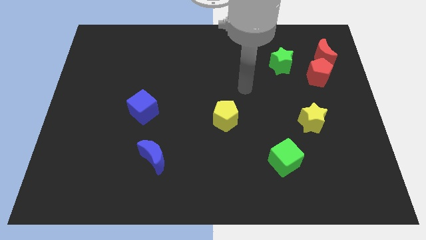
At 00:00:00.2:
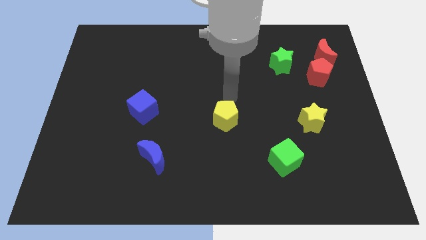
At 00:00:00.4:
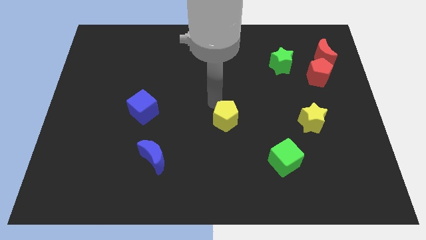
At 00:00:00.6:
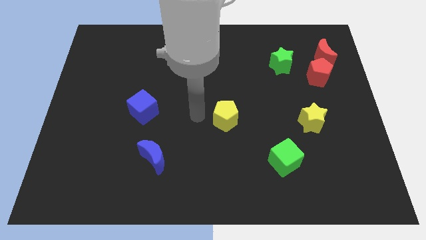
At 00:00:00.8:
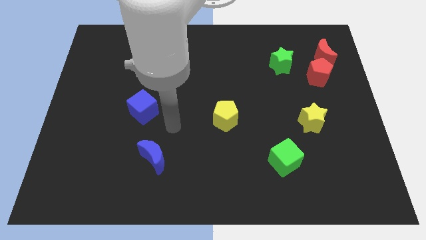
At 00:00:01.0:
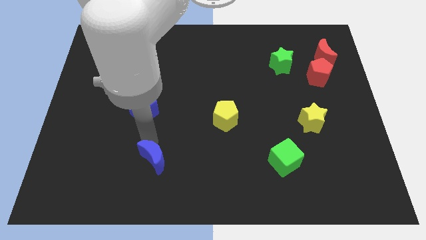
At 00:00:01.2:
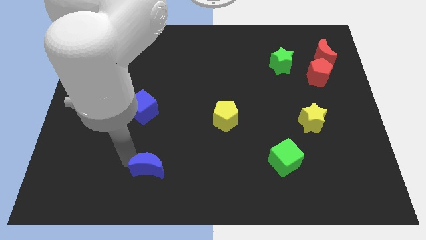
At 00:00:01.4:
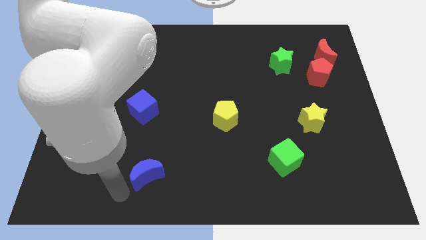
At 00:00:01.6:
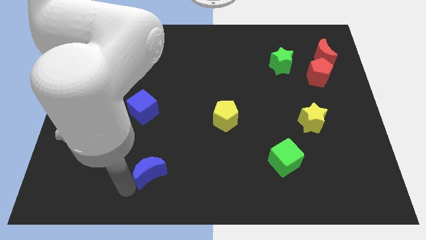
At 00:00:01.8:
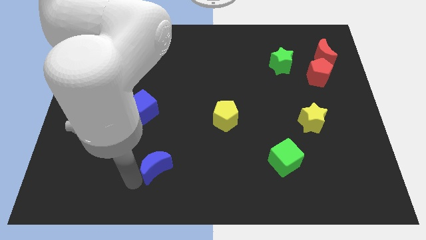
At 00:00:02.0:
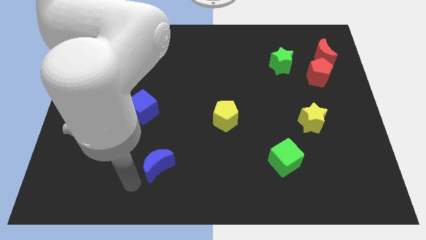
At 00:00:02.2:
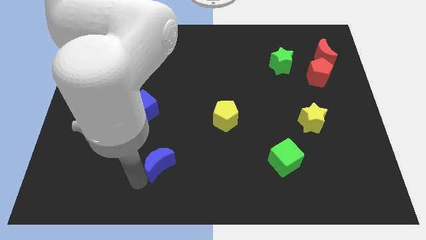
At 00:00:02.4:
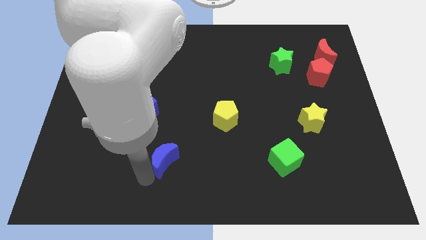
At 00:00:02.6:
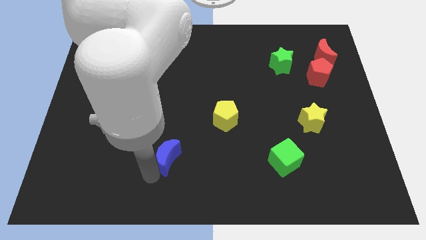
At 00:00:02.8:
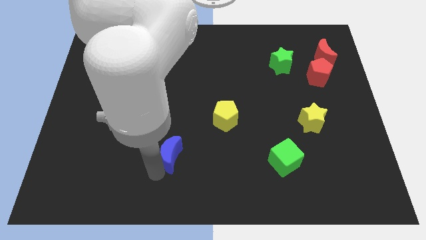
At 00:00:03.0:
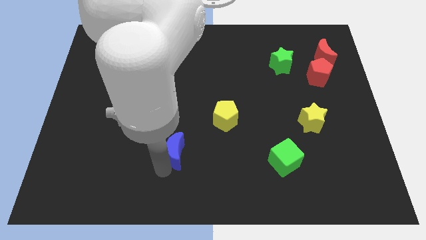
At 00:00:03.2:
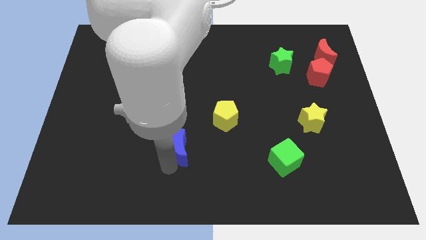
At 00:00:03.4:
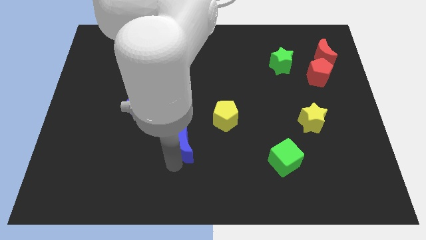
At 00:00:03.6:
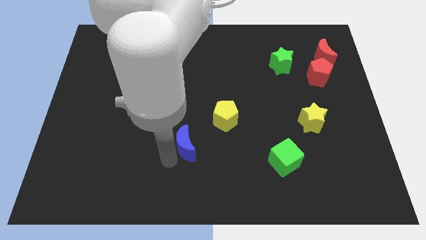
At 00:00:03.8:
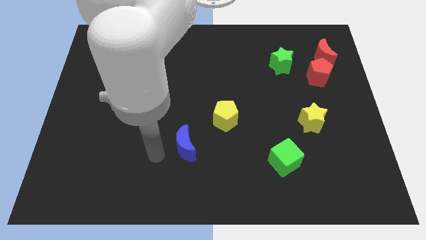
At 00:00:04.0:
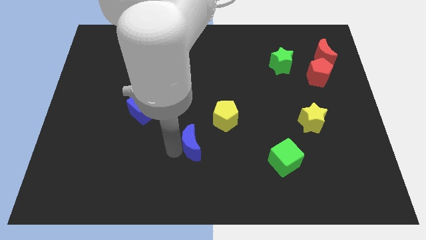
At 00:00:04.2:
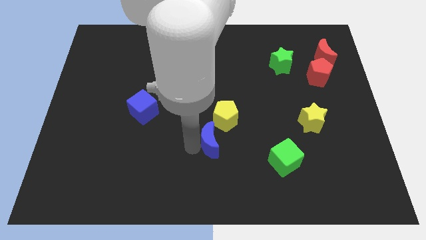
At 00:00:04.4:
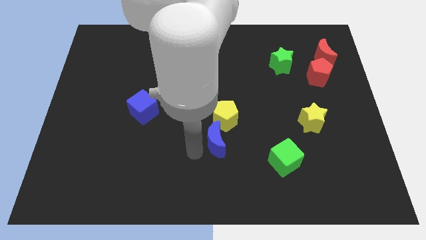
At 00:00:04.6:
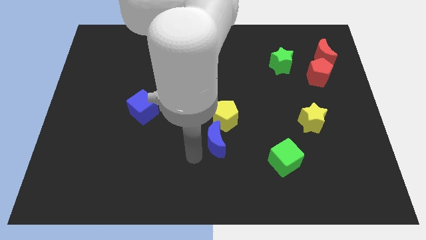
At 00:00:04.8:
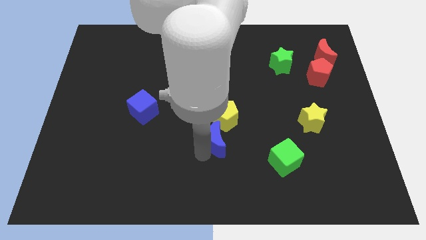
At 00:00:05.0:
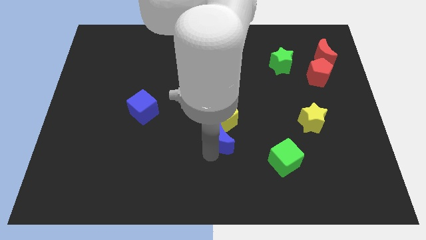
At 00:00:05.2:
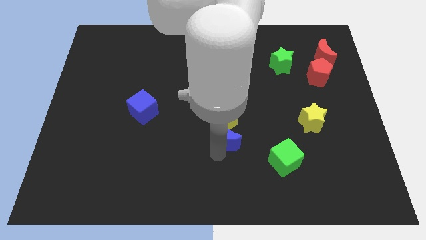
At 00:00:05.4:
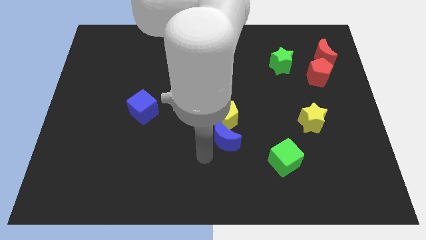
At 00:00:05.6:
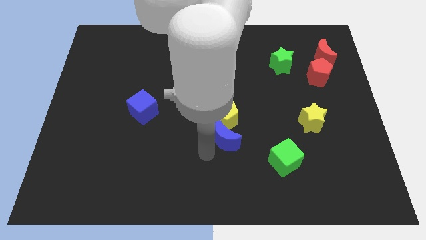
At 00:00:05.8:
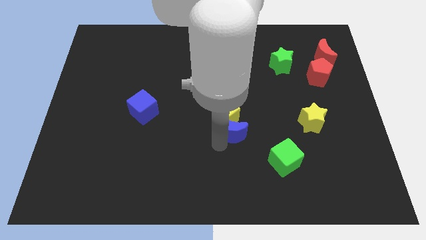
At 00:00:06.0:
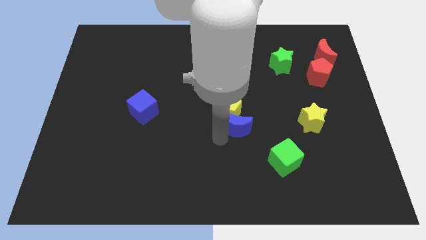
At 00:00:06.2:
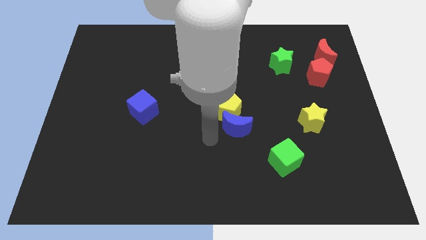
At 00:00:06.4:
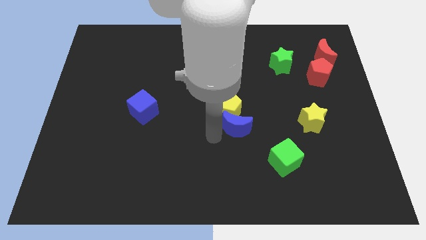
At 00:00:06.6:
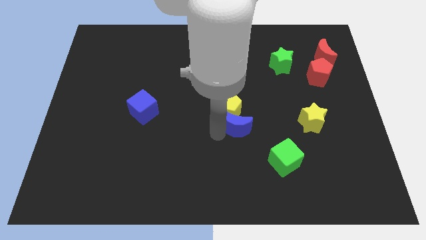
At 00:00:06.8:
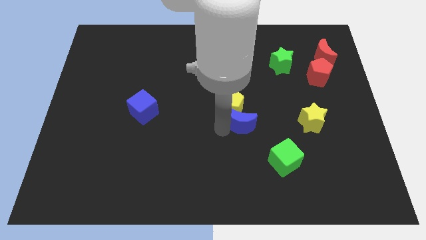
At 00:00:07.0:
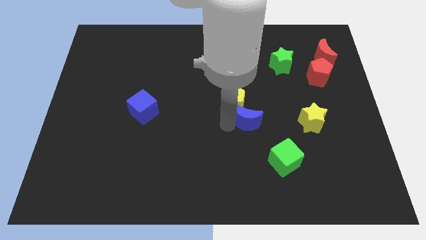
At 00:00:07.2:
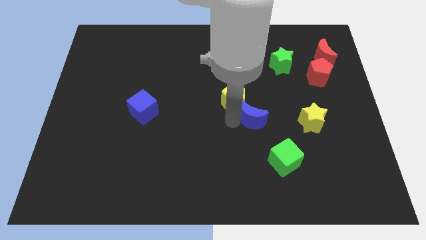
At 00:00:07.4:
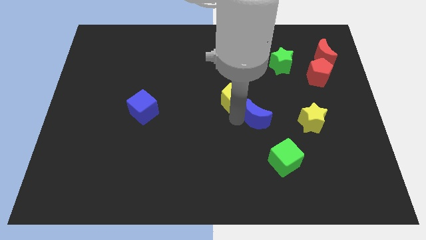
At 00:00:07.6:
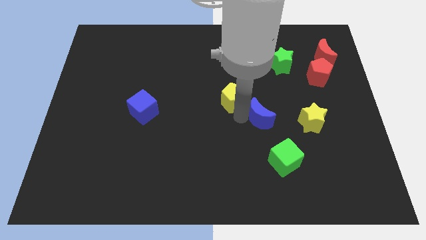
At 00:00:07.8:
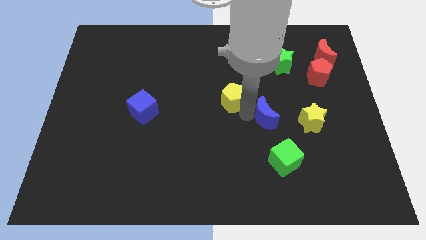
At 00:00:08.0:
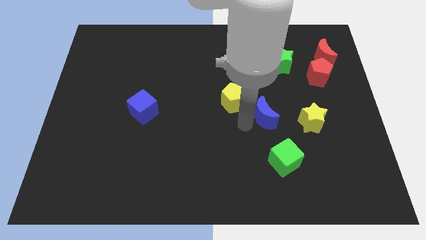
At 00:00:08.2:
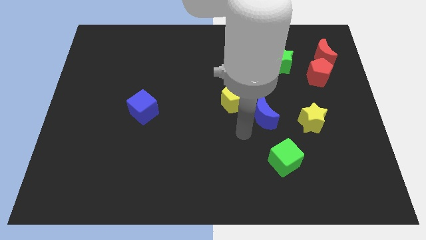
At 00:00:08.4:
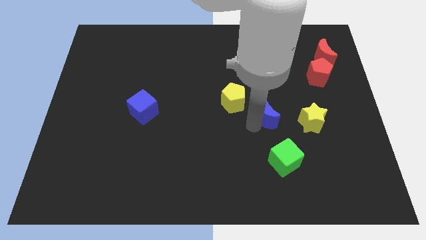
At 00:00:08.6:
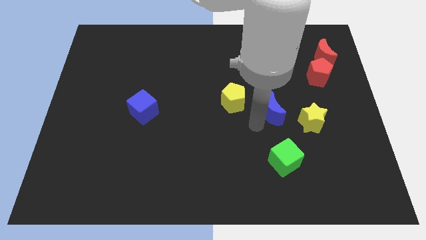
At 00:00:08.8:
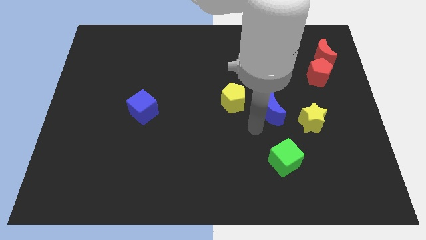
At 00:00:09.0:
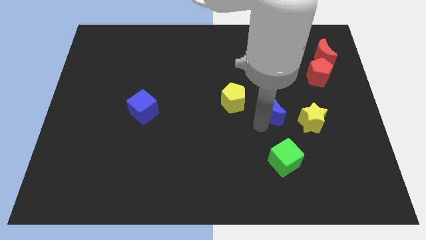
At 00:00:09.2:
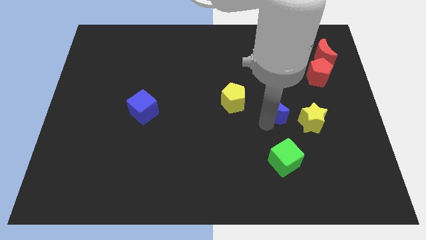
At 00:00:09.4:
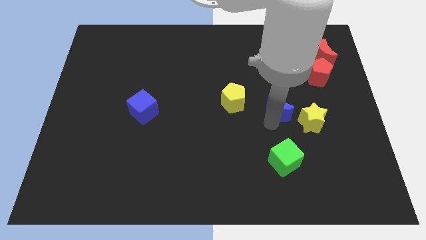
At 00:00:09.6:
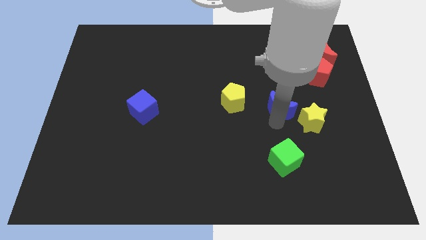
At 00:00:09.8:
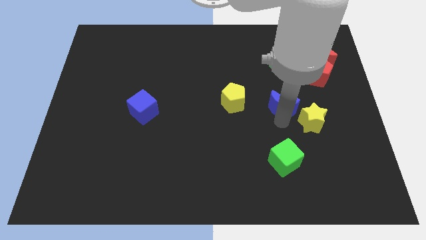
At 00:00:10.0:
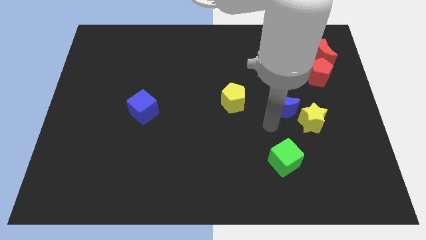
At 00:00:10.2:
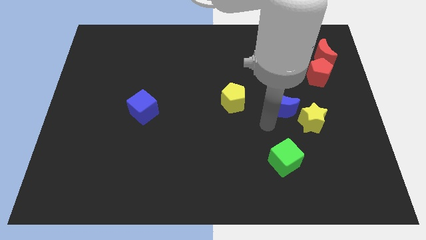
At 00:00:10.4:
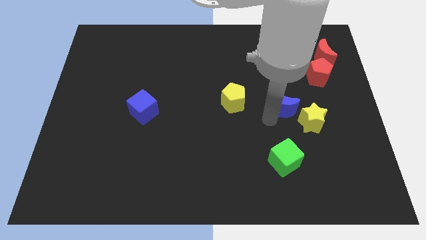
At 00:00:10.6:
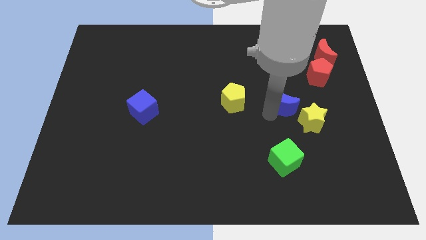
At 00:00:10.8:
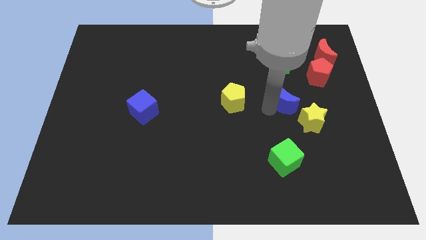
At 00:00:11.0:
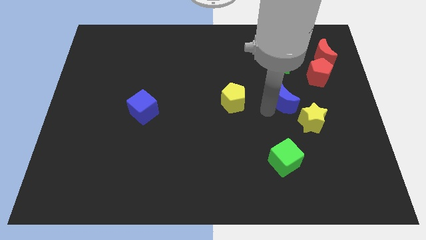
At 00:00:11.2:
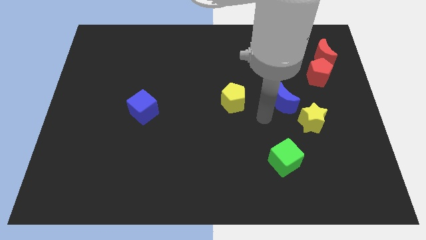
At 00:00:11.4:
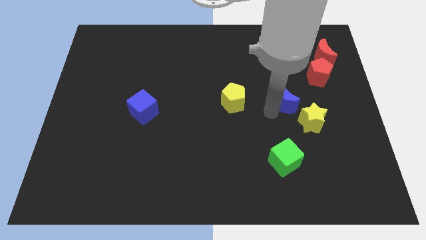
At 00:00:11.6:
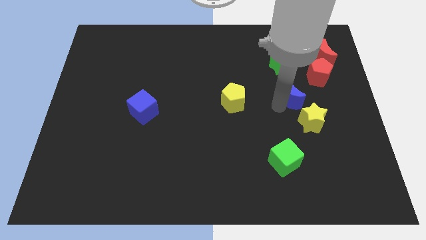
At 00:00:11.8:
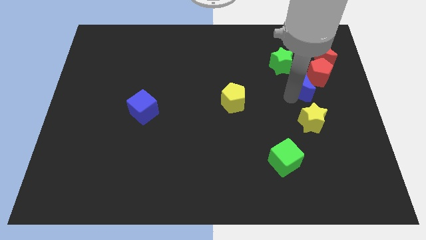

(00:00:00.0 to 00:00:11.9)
slide the blue moon to the red pentagon
